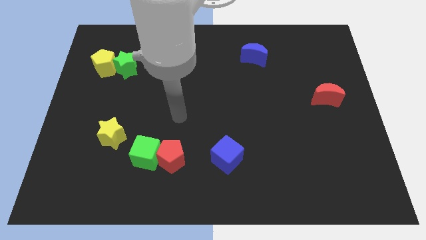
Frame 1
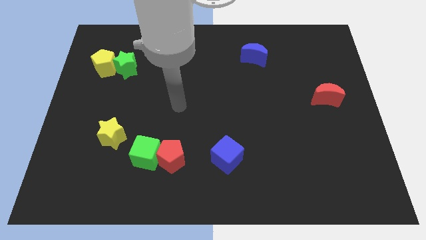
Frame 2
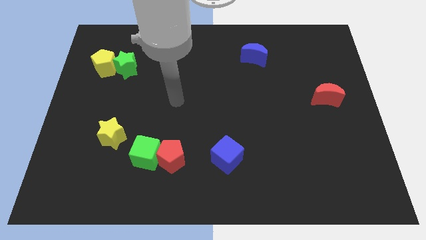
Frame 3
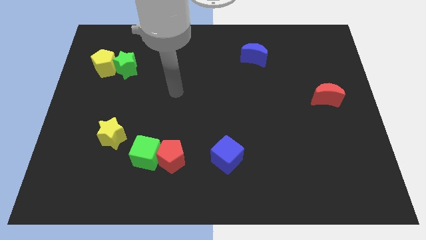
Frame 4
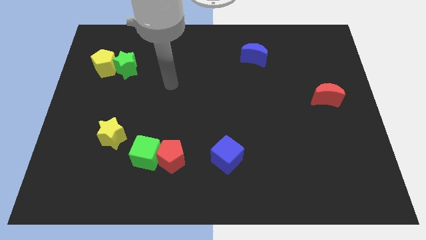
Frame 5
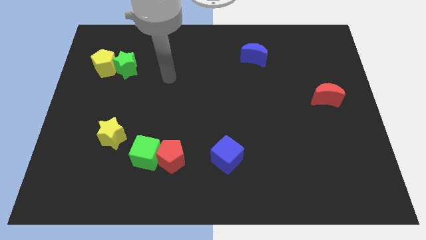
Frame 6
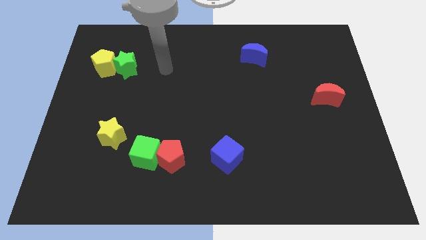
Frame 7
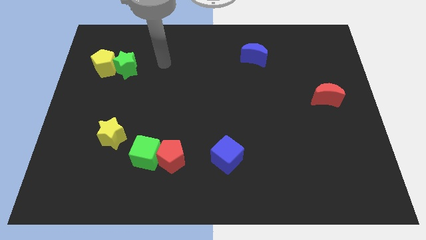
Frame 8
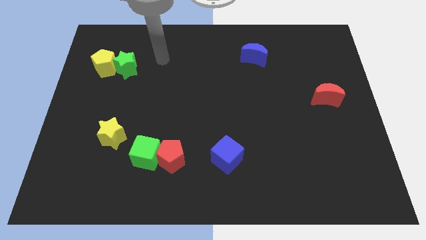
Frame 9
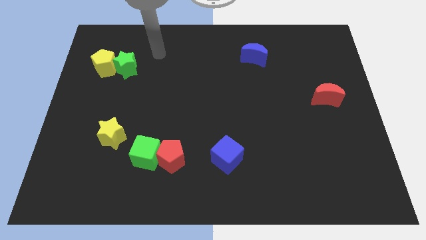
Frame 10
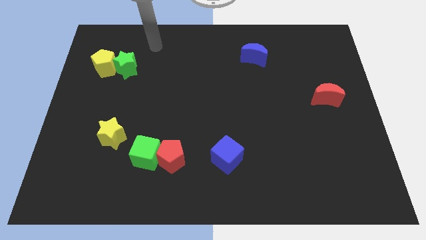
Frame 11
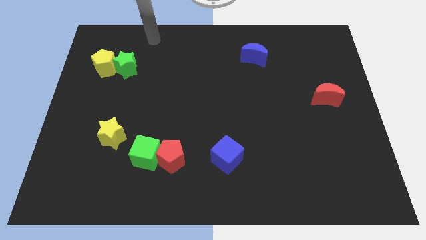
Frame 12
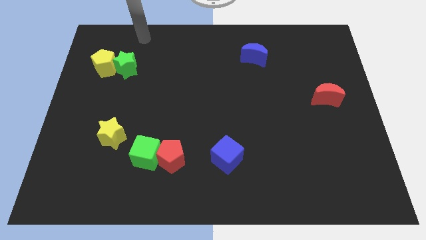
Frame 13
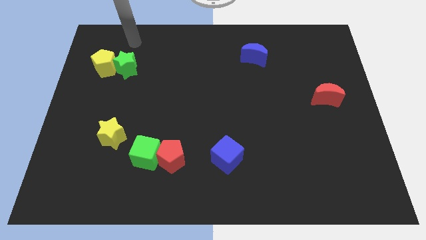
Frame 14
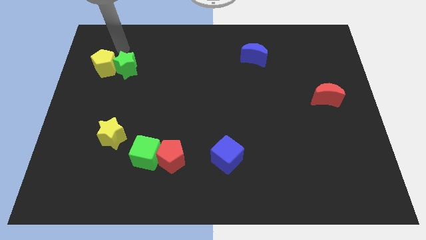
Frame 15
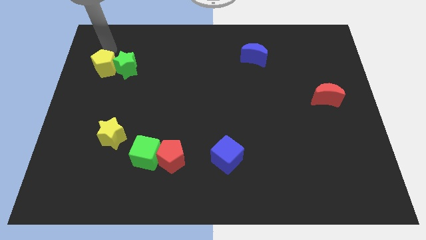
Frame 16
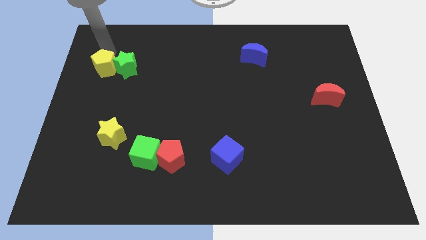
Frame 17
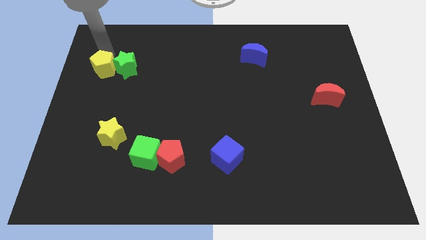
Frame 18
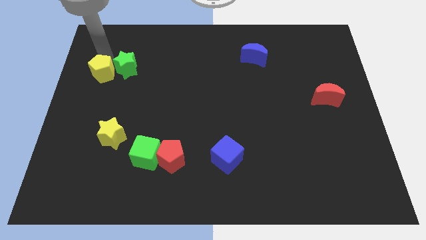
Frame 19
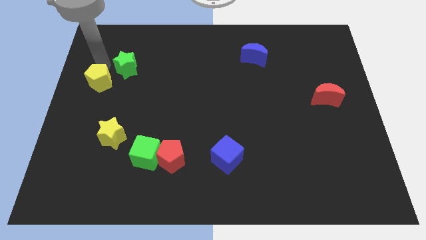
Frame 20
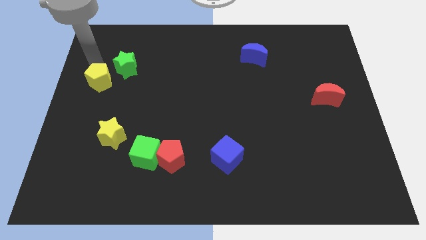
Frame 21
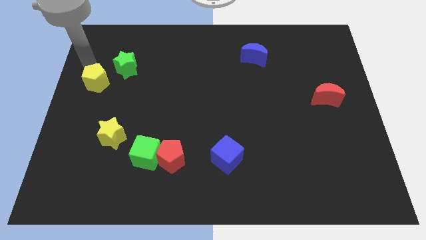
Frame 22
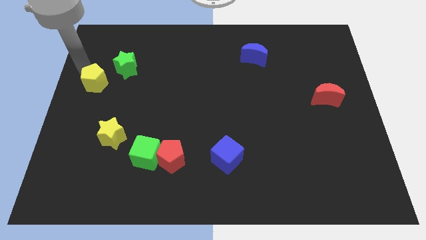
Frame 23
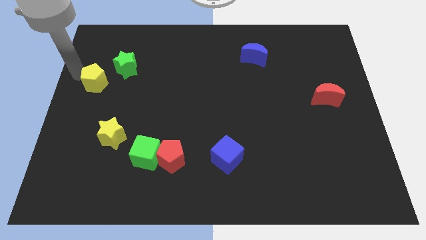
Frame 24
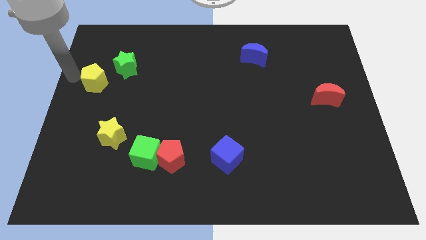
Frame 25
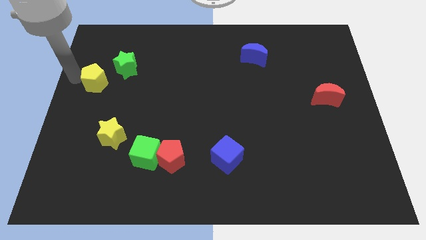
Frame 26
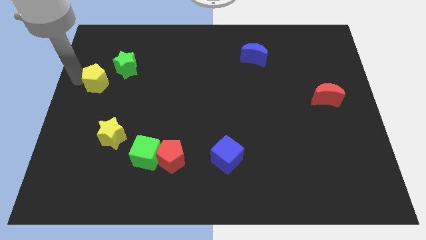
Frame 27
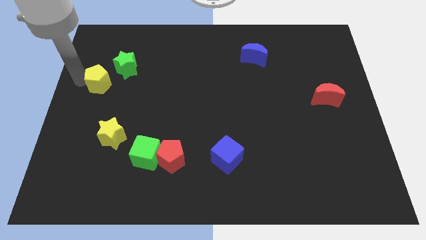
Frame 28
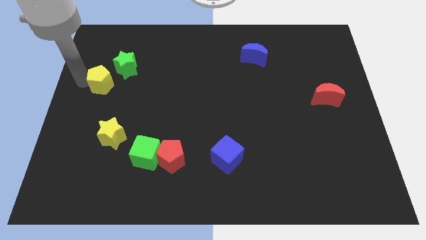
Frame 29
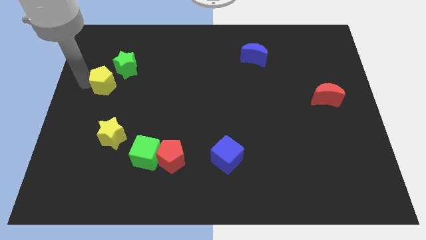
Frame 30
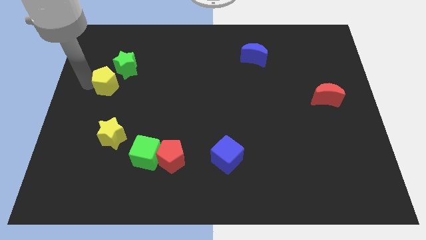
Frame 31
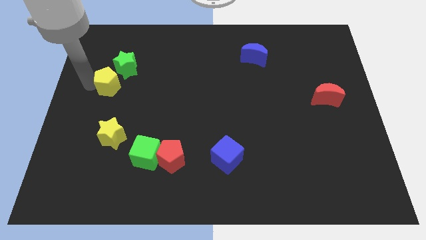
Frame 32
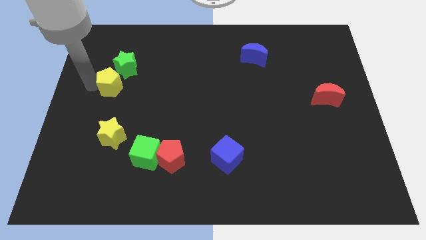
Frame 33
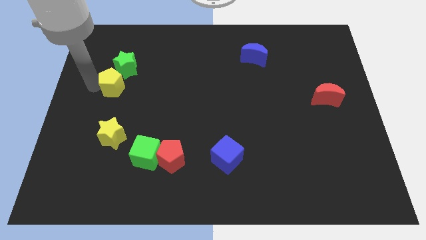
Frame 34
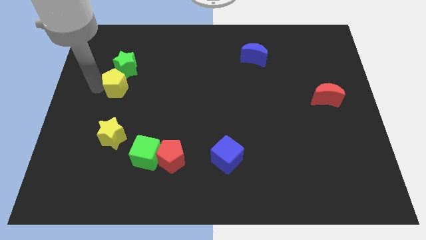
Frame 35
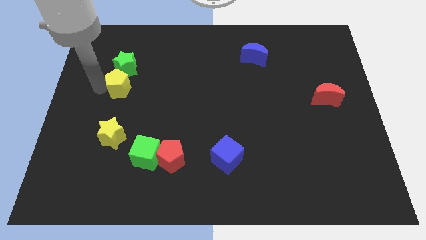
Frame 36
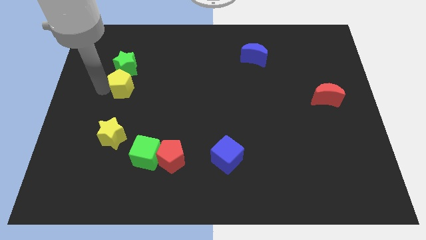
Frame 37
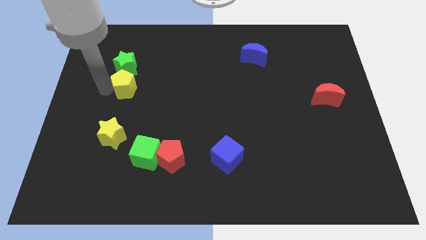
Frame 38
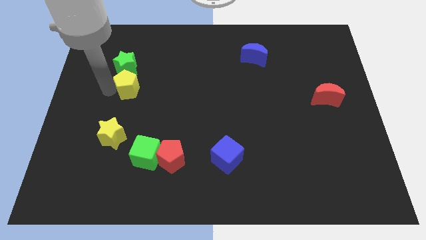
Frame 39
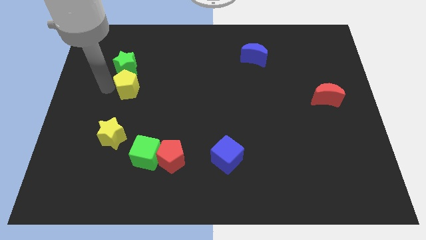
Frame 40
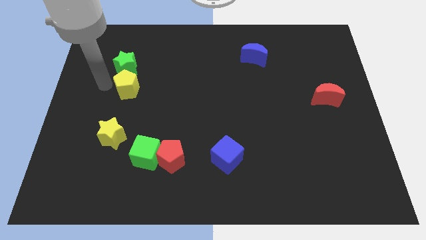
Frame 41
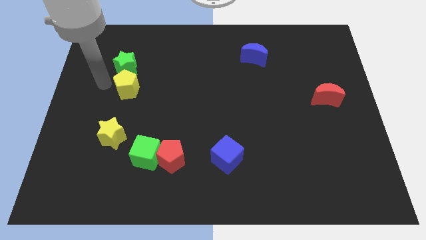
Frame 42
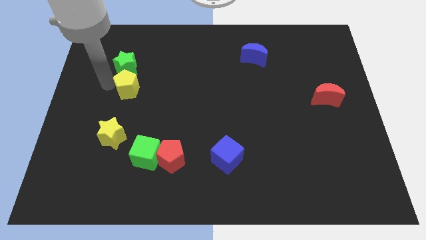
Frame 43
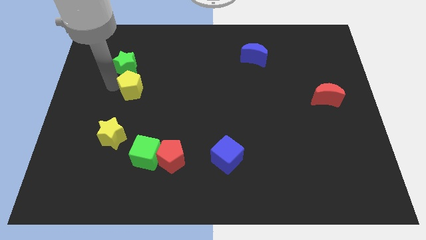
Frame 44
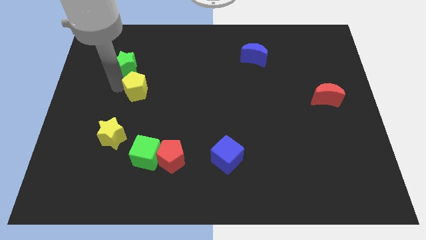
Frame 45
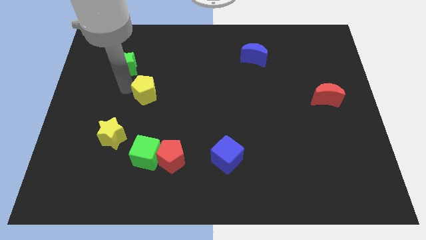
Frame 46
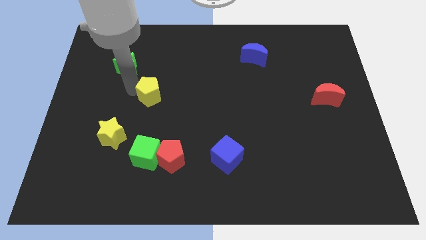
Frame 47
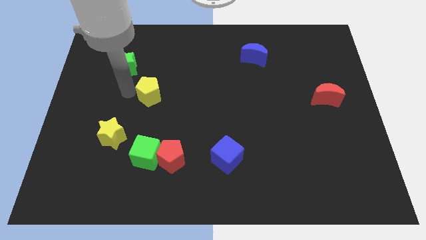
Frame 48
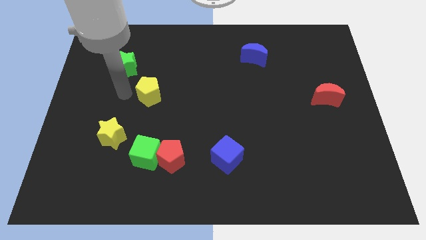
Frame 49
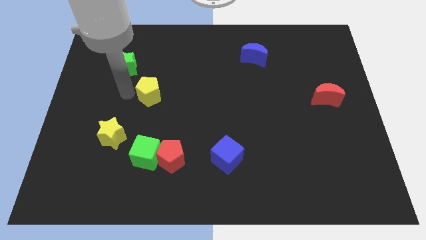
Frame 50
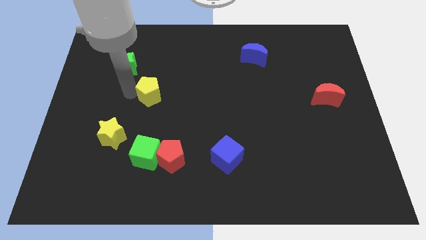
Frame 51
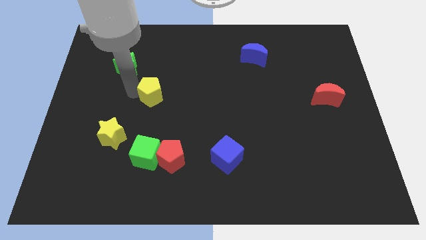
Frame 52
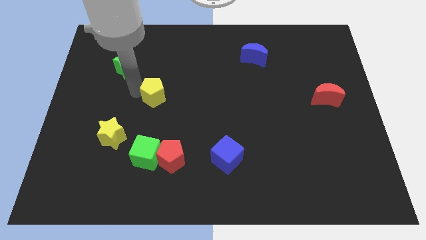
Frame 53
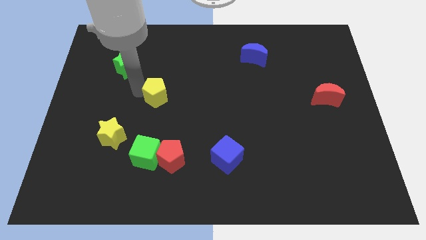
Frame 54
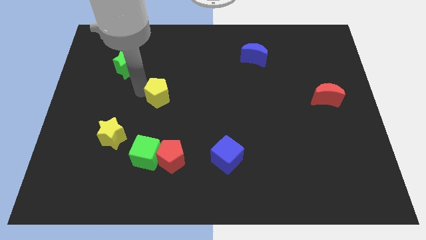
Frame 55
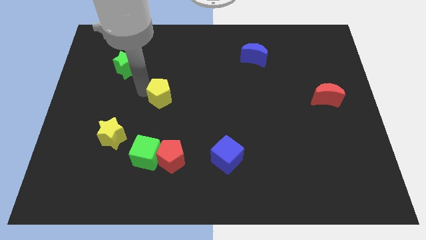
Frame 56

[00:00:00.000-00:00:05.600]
move the yellow pentagon to the center of the board
